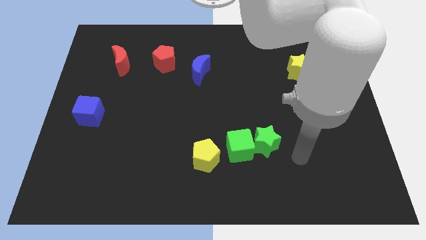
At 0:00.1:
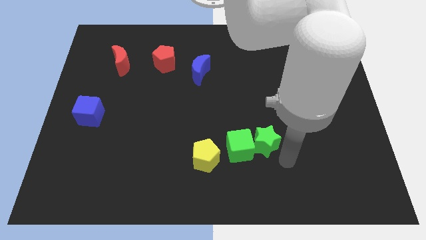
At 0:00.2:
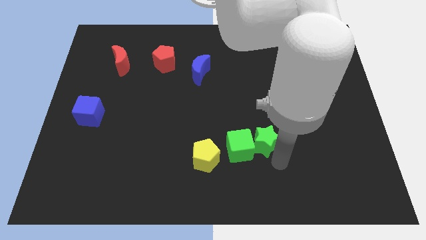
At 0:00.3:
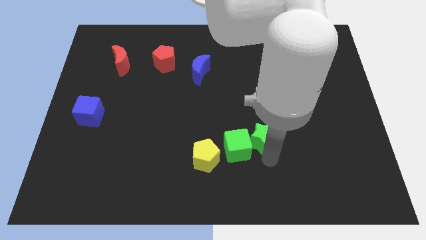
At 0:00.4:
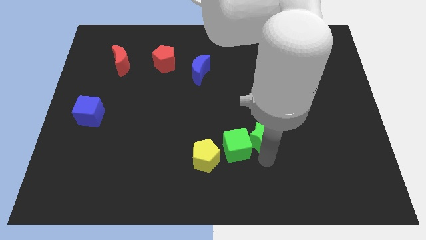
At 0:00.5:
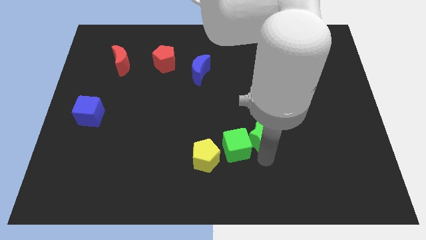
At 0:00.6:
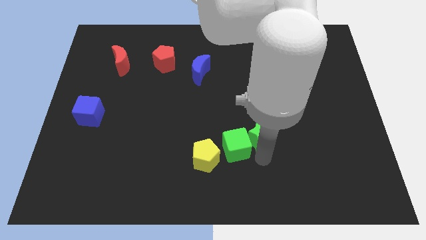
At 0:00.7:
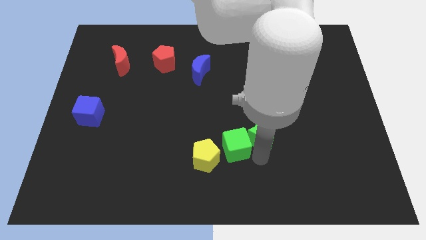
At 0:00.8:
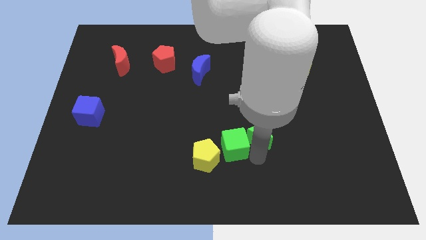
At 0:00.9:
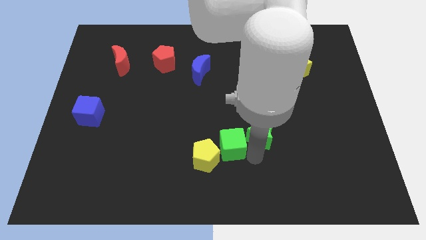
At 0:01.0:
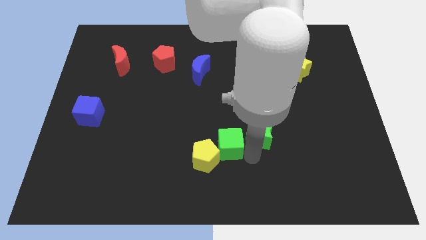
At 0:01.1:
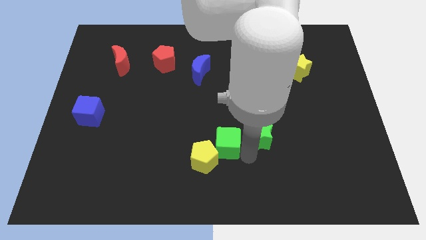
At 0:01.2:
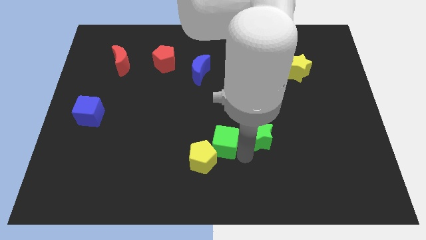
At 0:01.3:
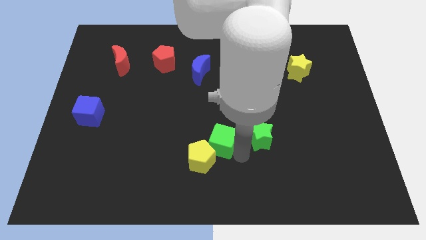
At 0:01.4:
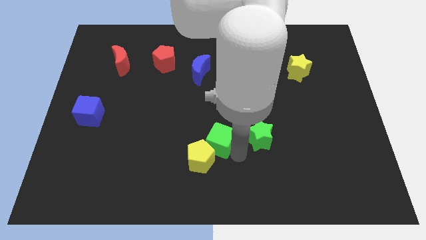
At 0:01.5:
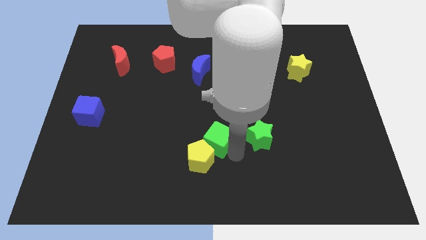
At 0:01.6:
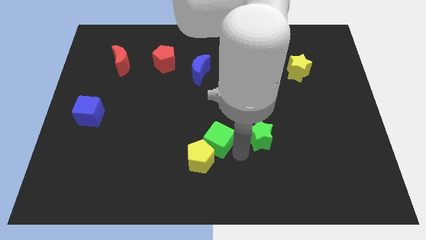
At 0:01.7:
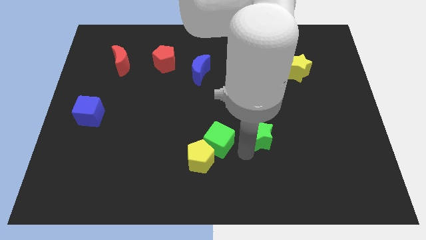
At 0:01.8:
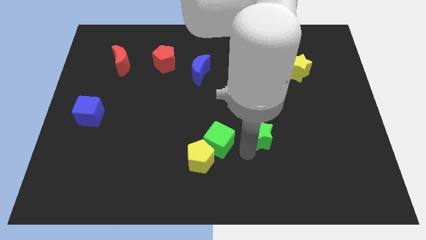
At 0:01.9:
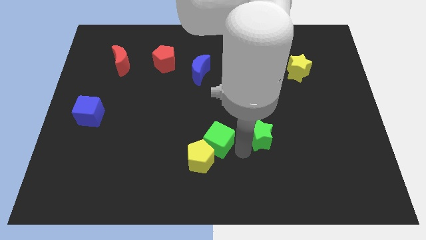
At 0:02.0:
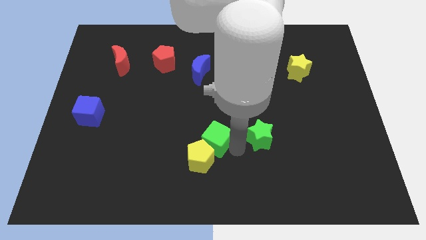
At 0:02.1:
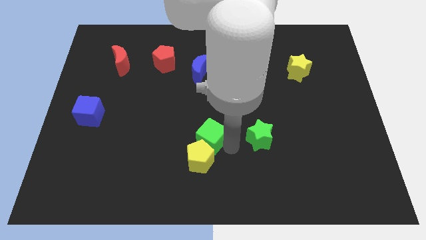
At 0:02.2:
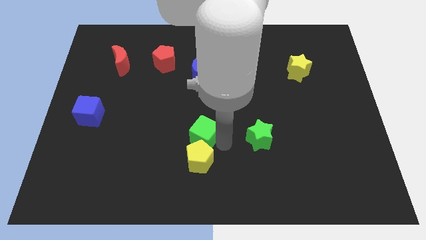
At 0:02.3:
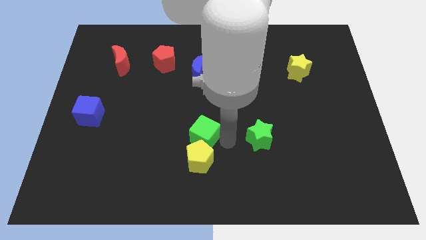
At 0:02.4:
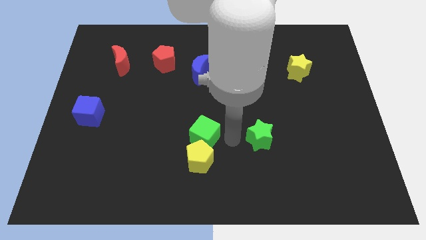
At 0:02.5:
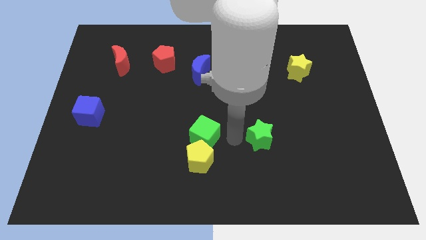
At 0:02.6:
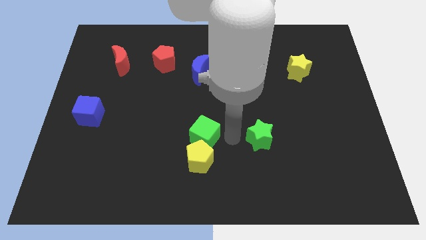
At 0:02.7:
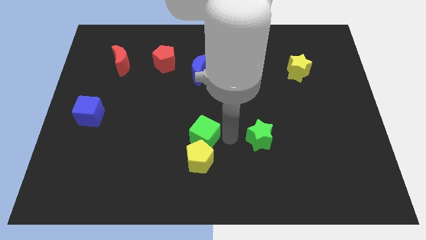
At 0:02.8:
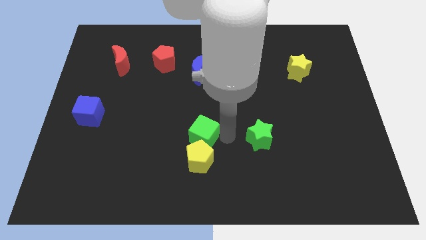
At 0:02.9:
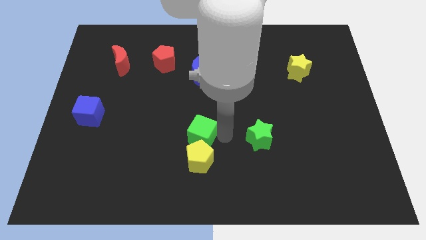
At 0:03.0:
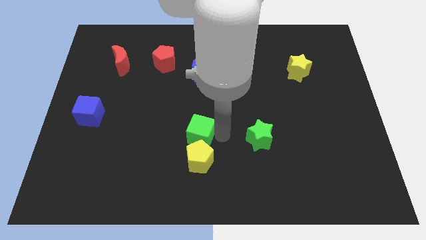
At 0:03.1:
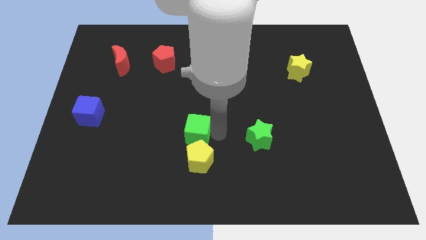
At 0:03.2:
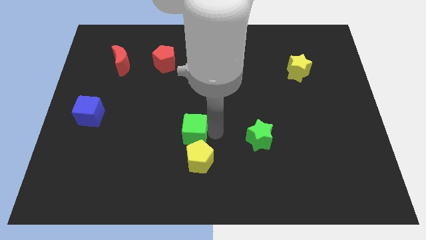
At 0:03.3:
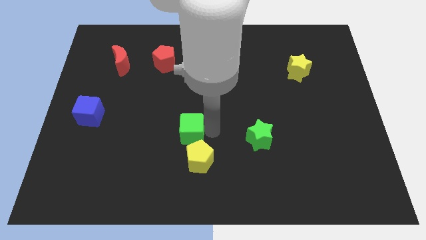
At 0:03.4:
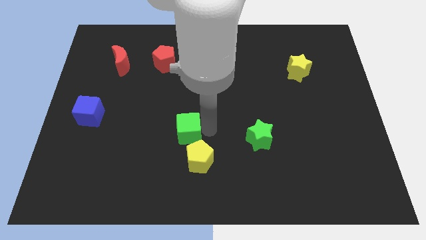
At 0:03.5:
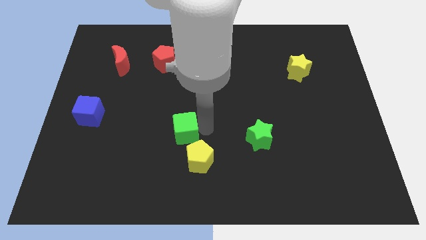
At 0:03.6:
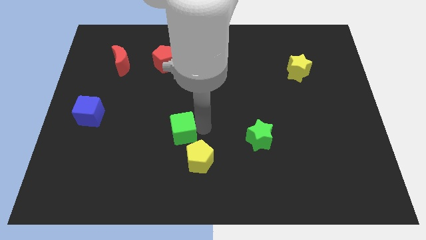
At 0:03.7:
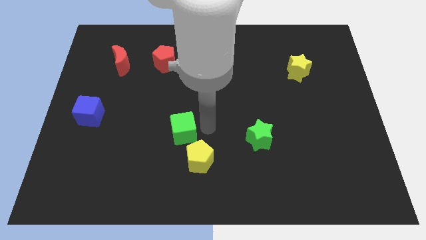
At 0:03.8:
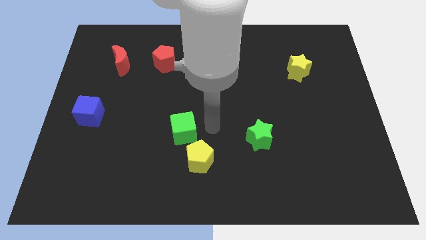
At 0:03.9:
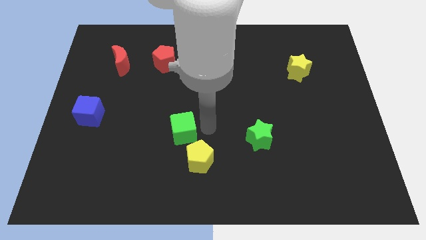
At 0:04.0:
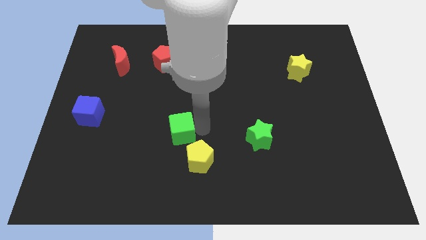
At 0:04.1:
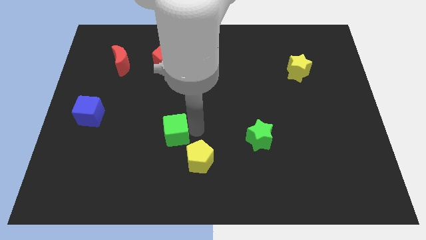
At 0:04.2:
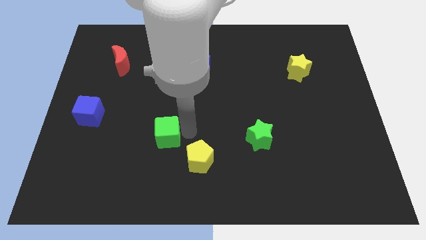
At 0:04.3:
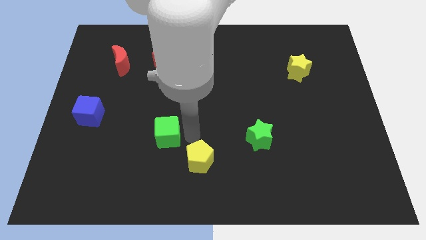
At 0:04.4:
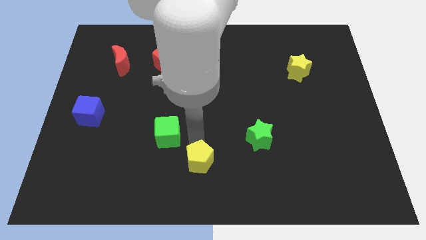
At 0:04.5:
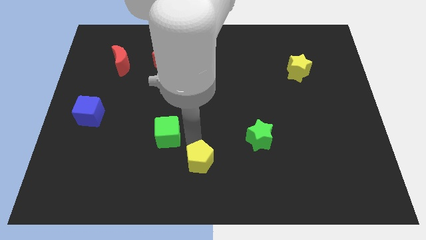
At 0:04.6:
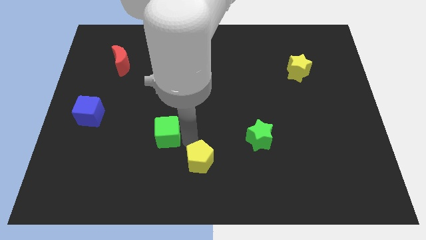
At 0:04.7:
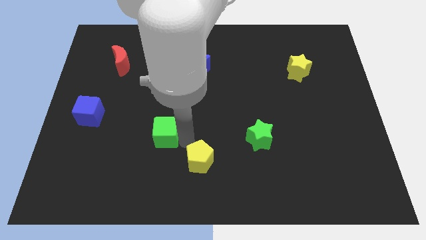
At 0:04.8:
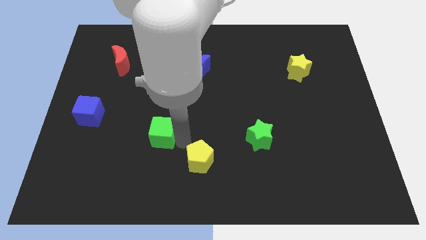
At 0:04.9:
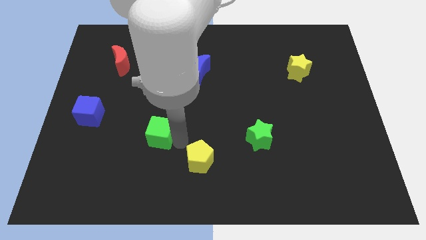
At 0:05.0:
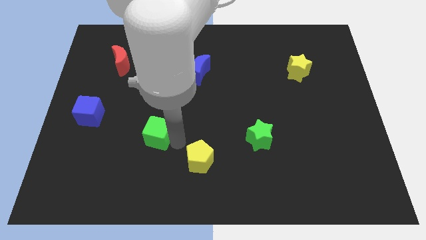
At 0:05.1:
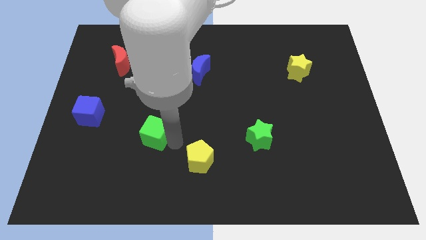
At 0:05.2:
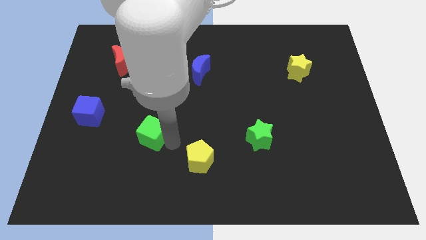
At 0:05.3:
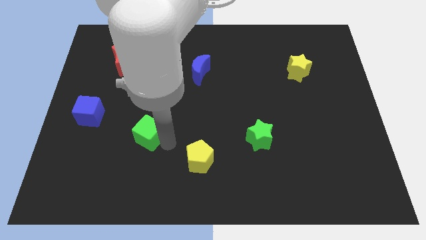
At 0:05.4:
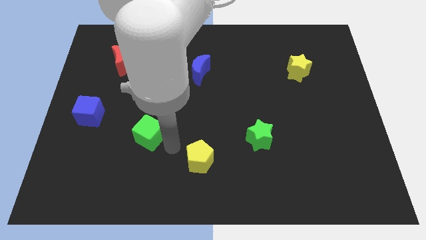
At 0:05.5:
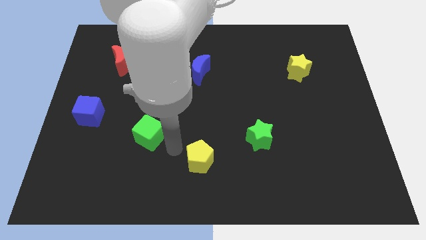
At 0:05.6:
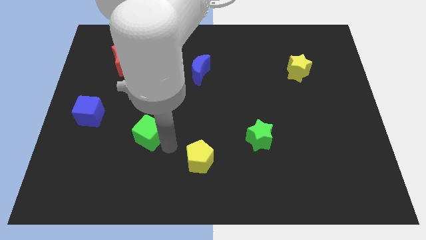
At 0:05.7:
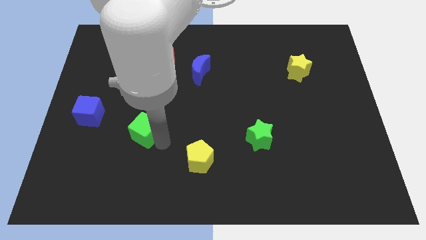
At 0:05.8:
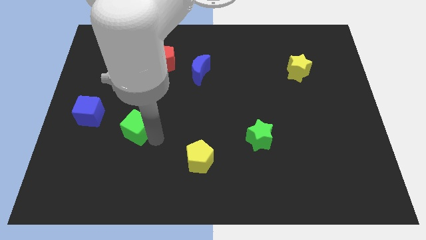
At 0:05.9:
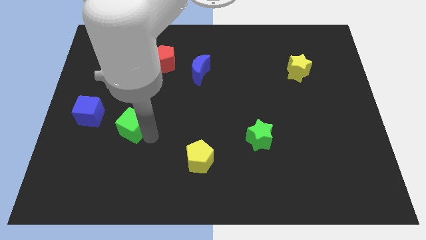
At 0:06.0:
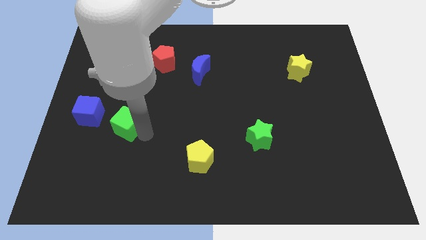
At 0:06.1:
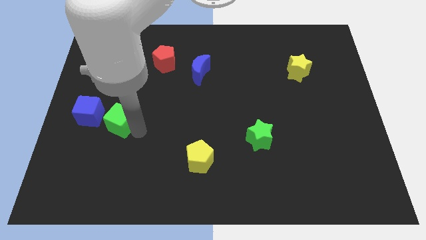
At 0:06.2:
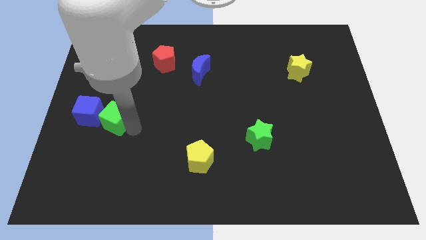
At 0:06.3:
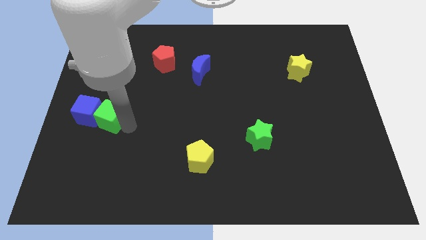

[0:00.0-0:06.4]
slide the green cube next to the blue cube

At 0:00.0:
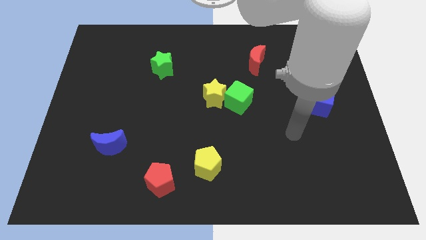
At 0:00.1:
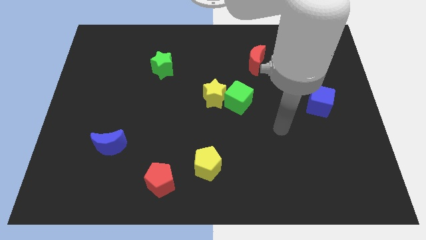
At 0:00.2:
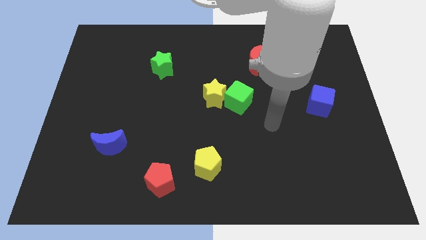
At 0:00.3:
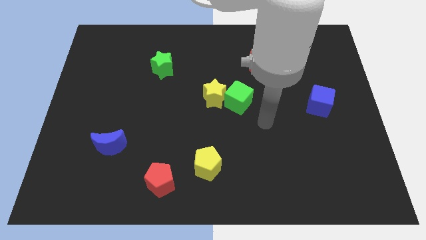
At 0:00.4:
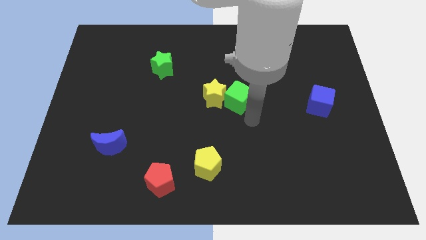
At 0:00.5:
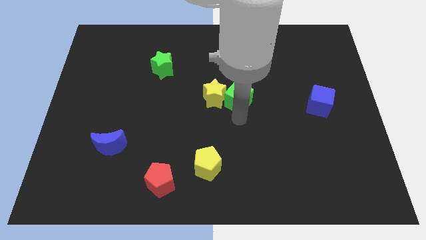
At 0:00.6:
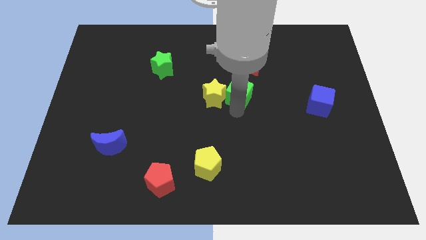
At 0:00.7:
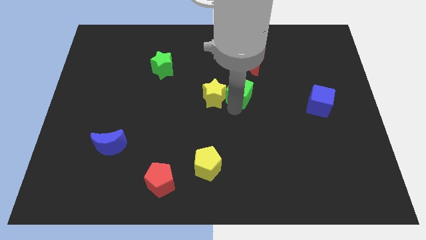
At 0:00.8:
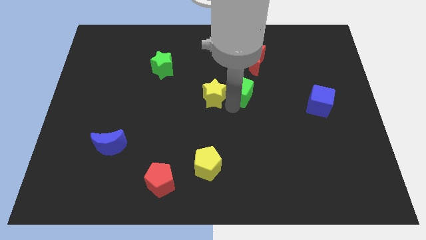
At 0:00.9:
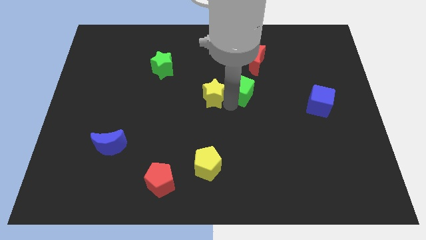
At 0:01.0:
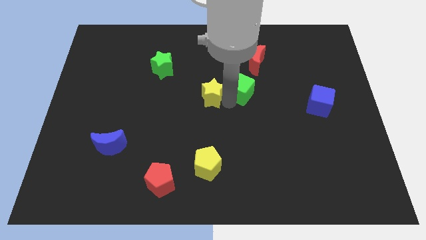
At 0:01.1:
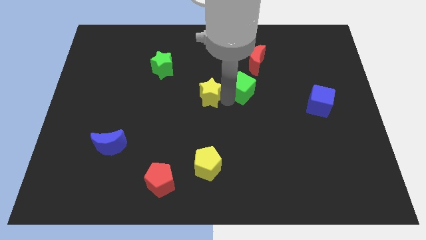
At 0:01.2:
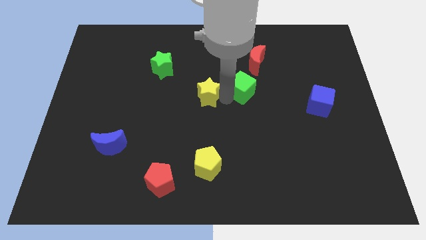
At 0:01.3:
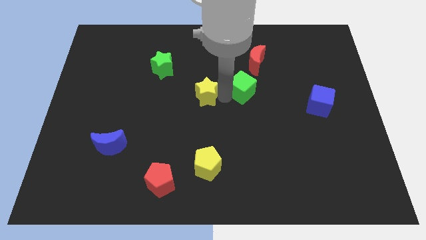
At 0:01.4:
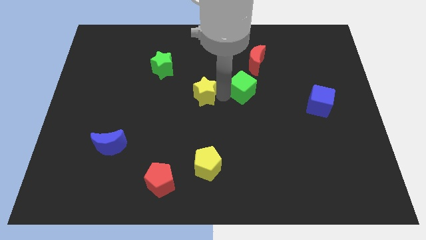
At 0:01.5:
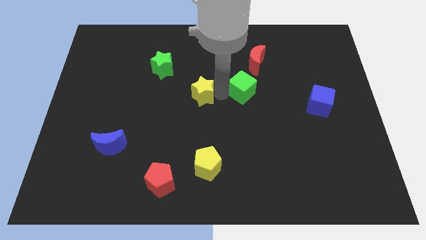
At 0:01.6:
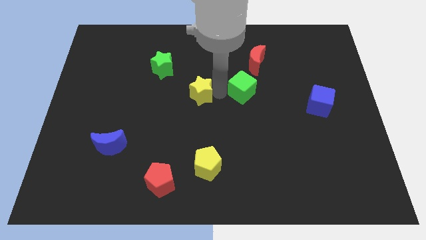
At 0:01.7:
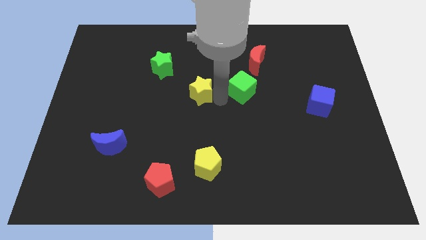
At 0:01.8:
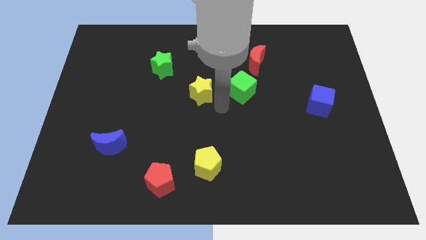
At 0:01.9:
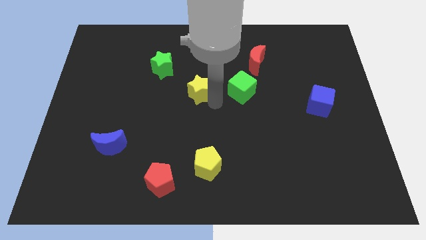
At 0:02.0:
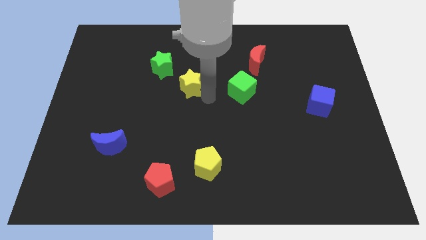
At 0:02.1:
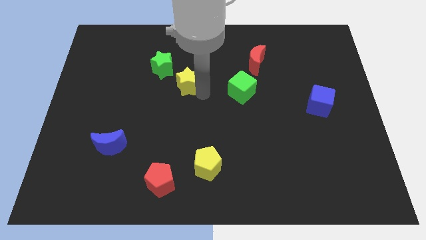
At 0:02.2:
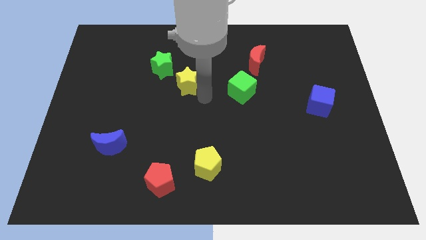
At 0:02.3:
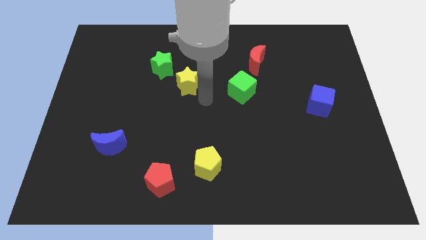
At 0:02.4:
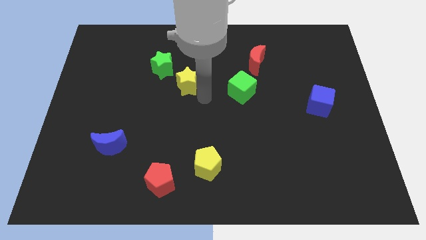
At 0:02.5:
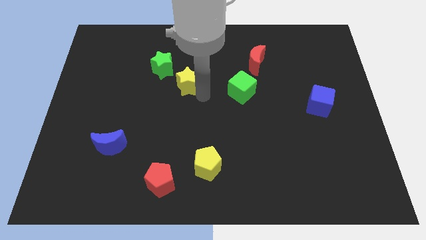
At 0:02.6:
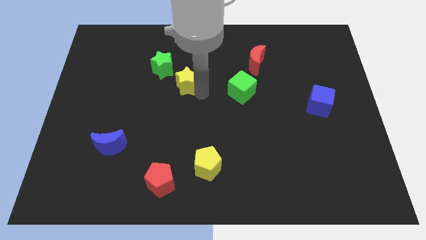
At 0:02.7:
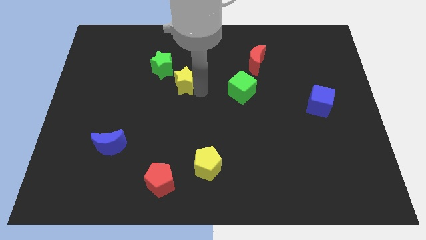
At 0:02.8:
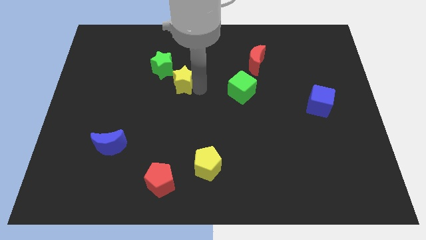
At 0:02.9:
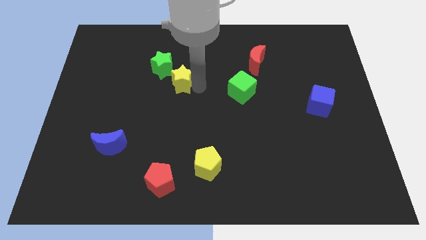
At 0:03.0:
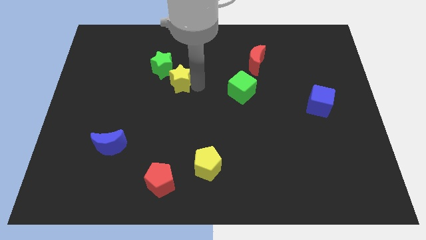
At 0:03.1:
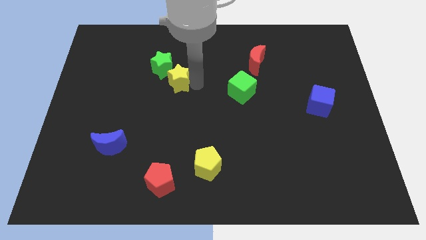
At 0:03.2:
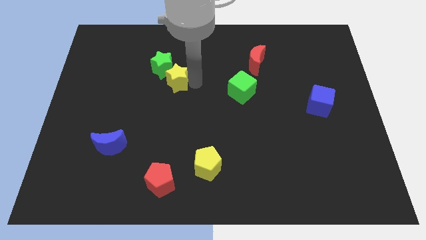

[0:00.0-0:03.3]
move the yellow star towards the green star
